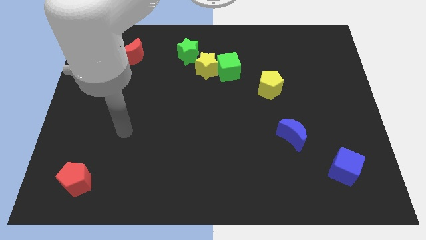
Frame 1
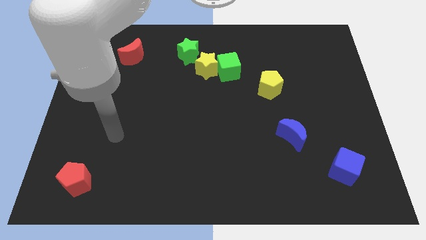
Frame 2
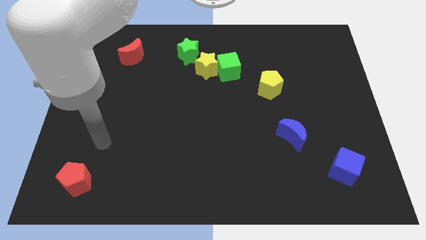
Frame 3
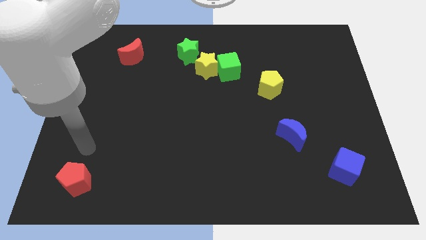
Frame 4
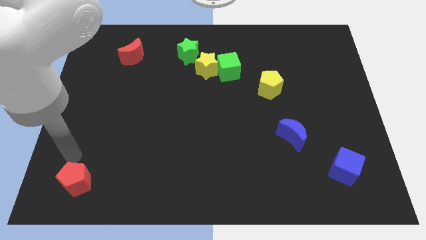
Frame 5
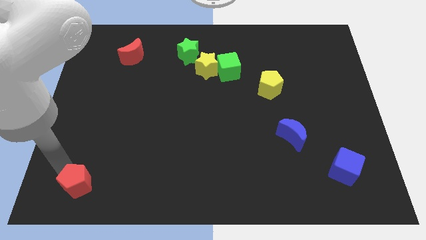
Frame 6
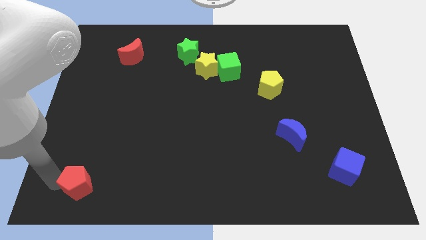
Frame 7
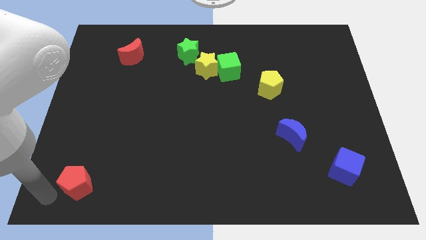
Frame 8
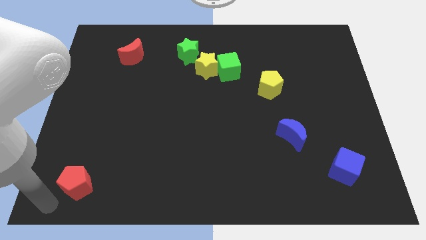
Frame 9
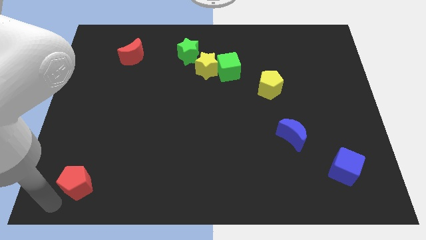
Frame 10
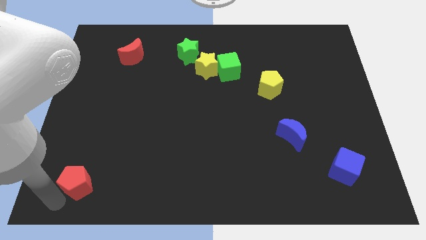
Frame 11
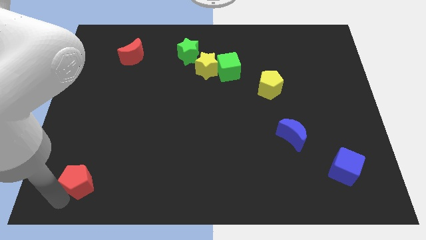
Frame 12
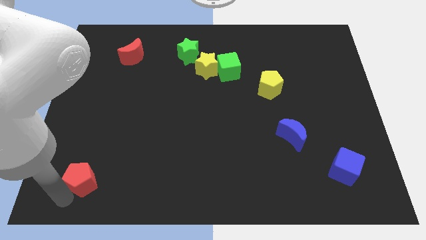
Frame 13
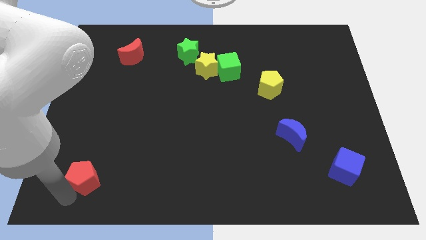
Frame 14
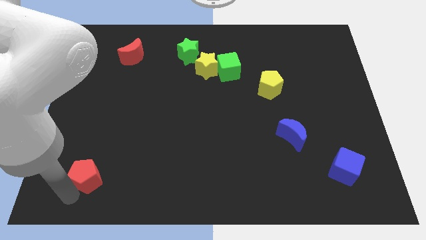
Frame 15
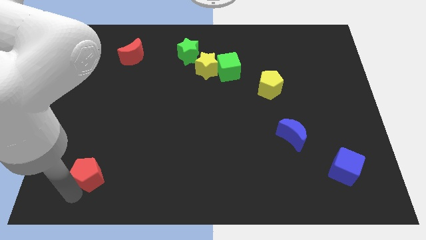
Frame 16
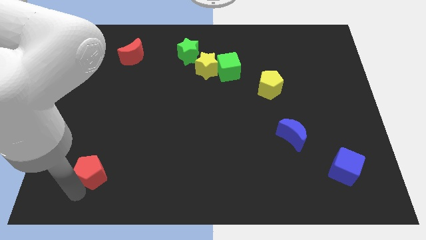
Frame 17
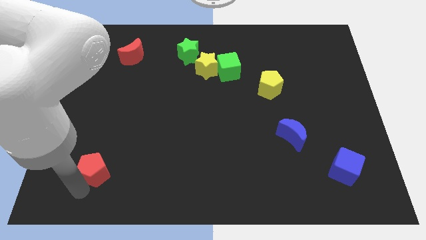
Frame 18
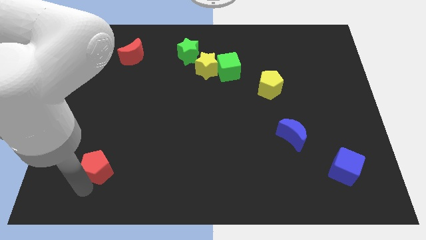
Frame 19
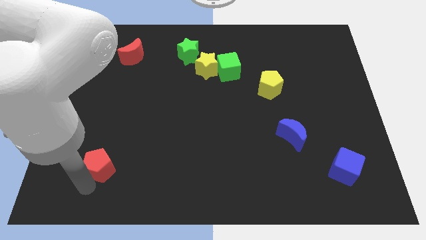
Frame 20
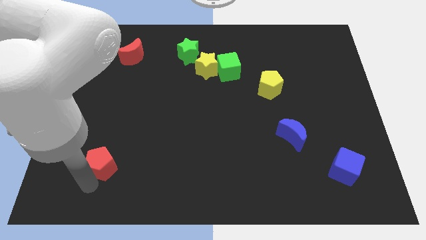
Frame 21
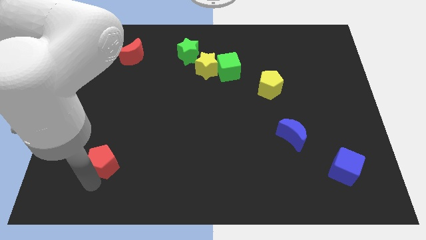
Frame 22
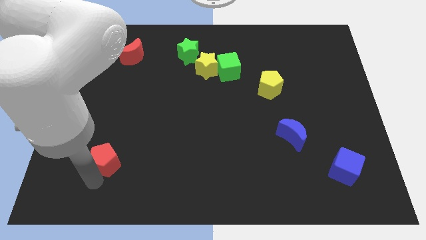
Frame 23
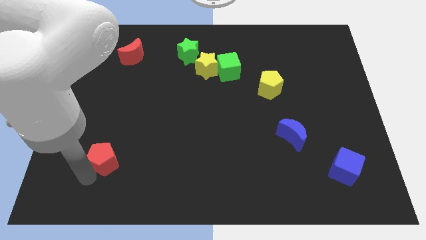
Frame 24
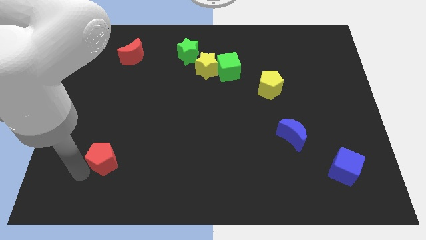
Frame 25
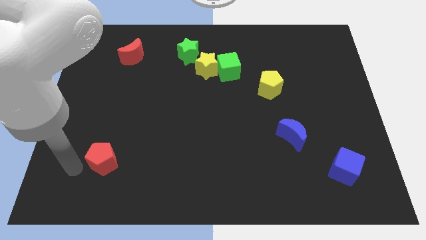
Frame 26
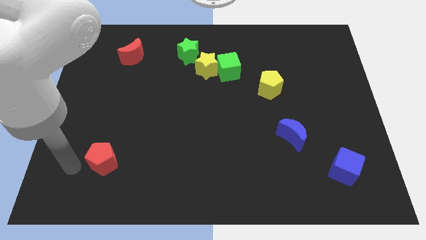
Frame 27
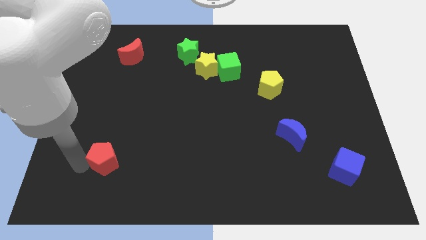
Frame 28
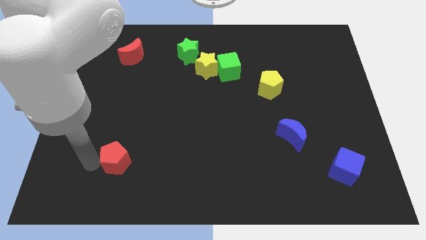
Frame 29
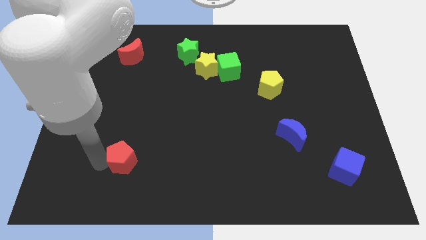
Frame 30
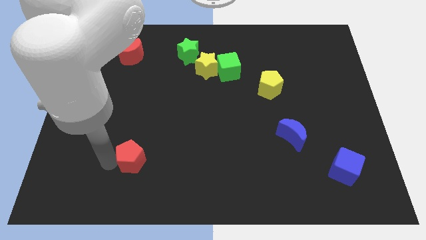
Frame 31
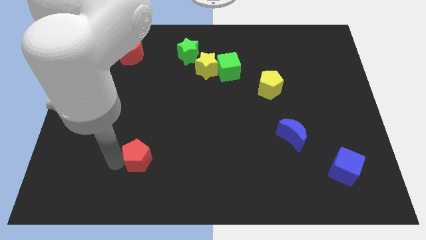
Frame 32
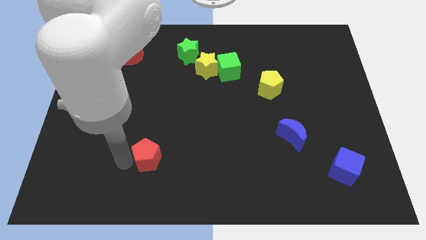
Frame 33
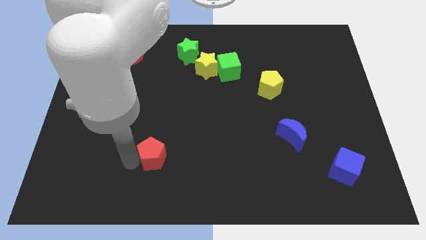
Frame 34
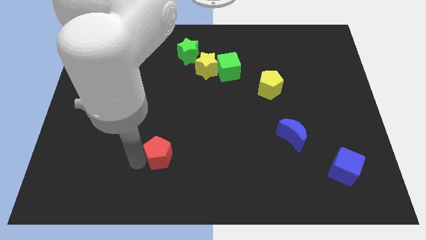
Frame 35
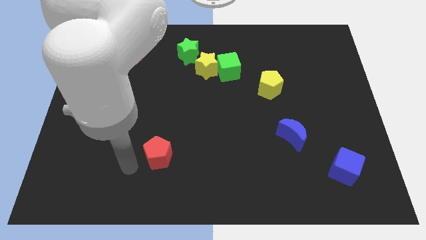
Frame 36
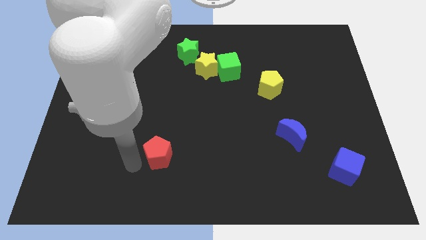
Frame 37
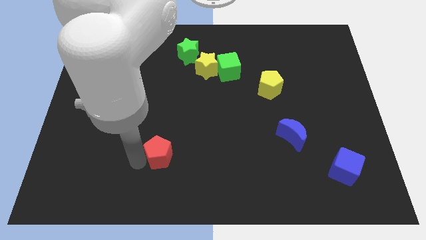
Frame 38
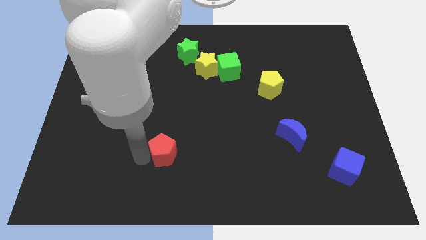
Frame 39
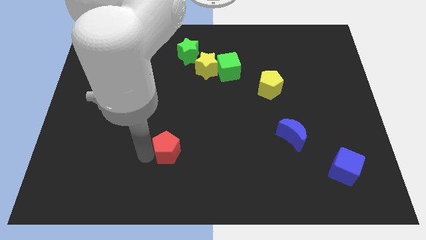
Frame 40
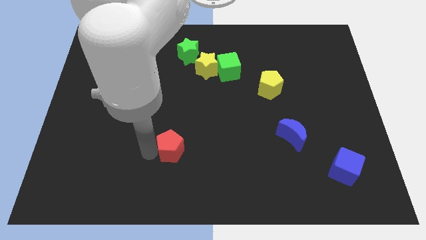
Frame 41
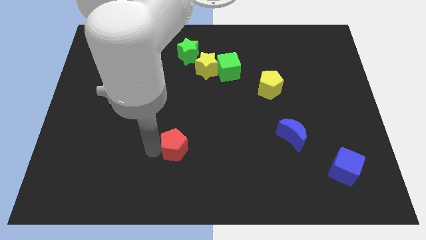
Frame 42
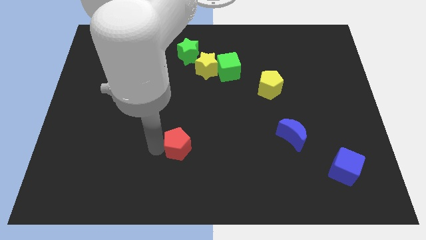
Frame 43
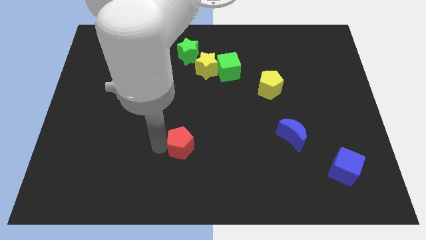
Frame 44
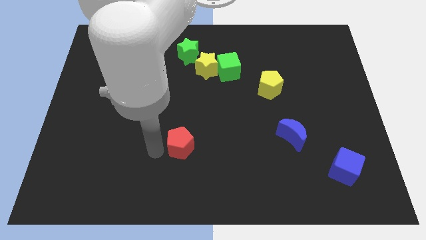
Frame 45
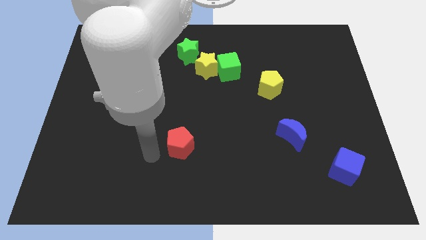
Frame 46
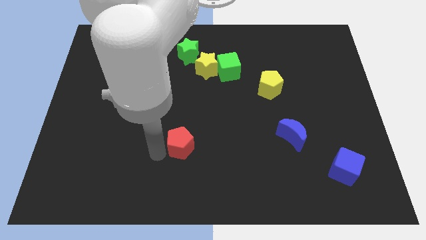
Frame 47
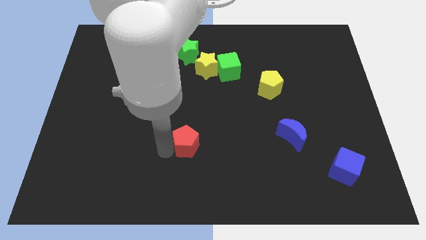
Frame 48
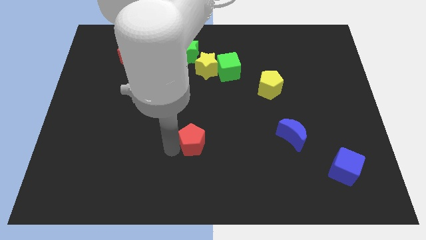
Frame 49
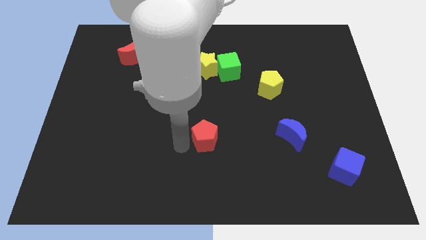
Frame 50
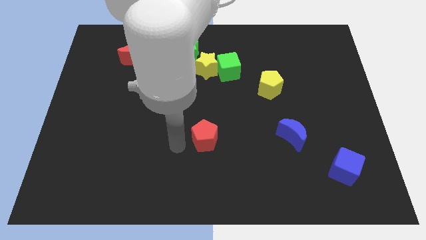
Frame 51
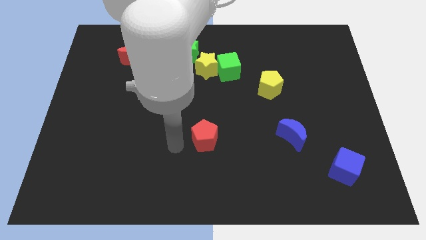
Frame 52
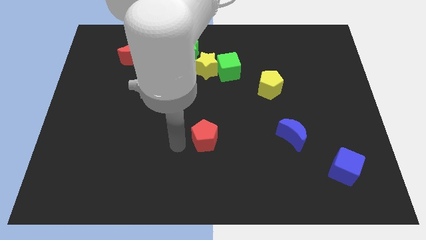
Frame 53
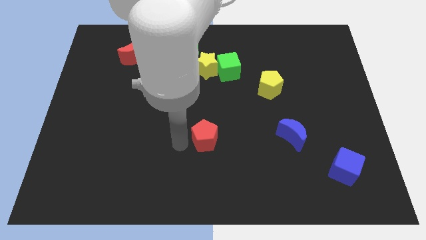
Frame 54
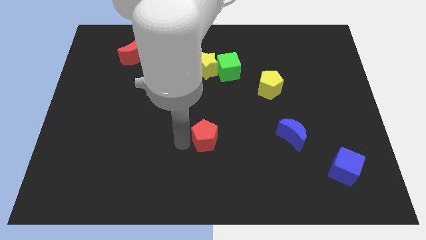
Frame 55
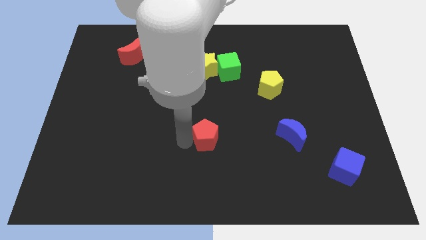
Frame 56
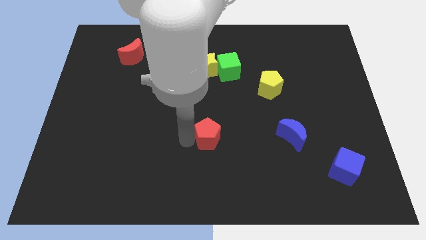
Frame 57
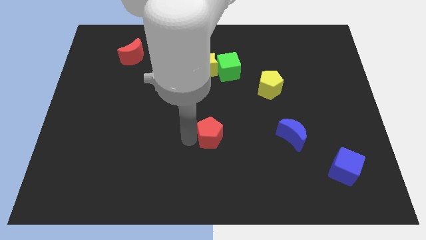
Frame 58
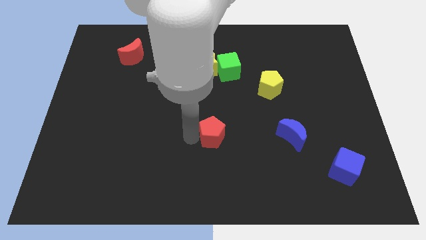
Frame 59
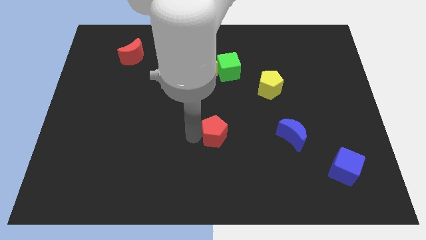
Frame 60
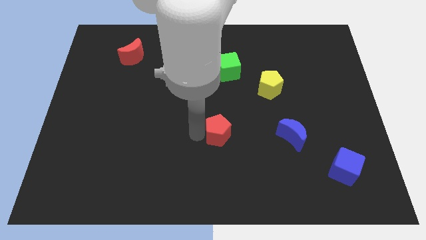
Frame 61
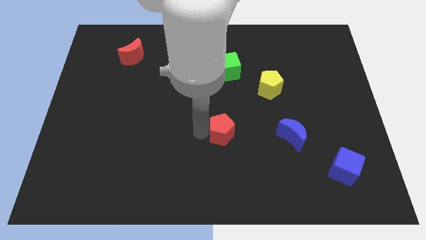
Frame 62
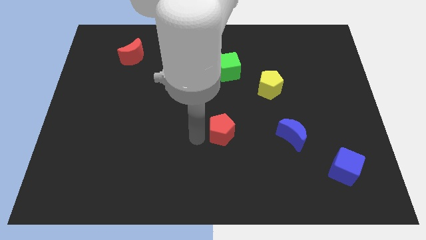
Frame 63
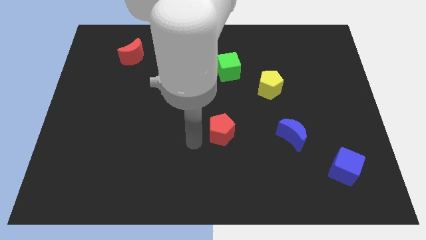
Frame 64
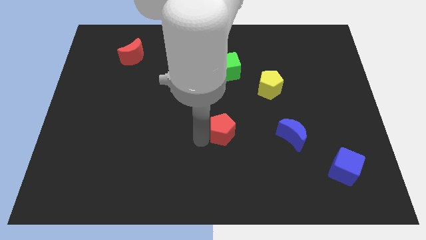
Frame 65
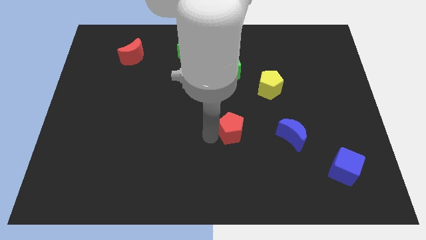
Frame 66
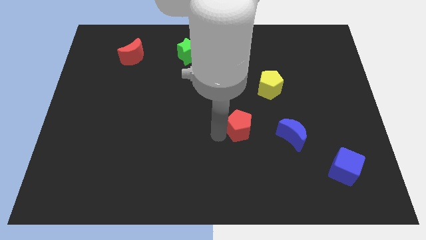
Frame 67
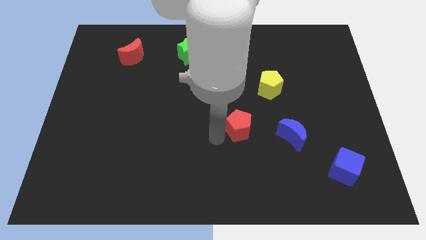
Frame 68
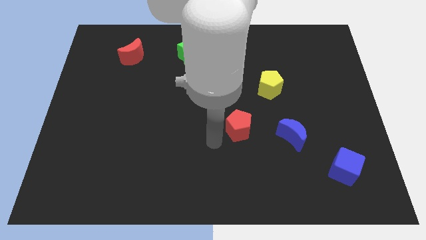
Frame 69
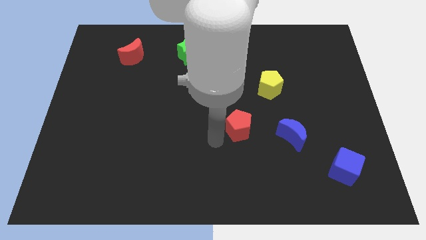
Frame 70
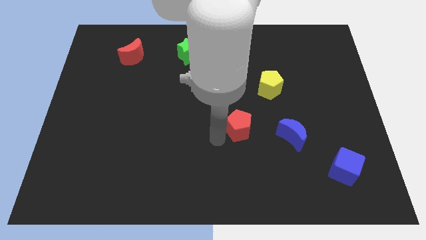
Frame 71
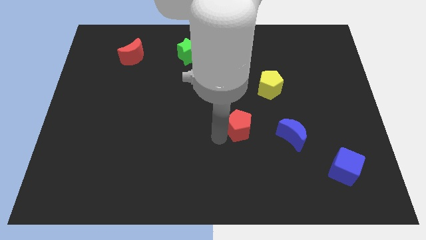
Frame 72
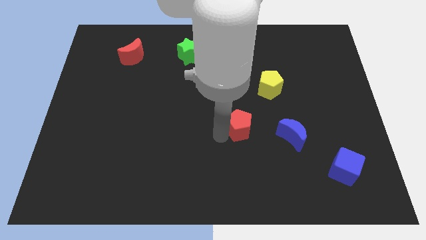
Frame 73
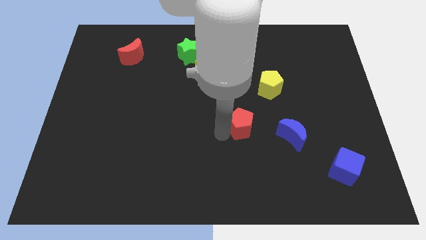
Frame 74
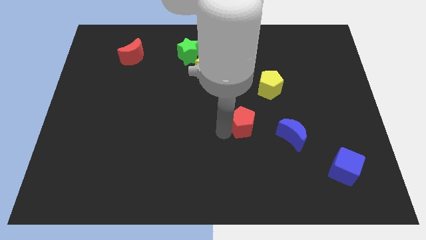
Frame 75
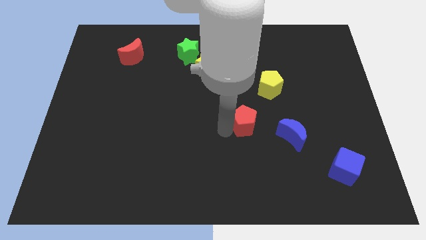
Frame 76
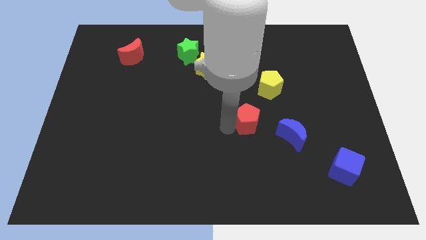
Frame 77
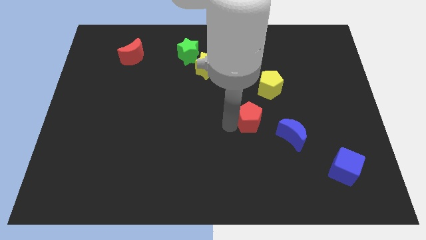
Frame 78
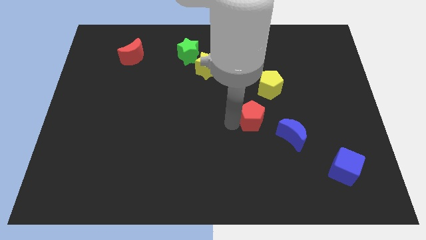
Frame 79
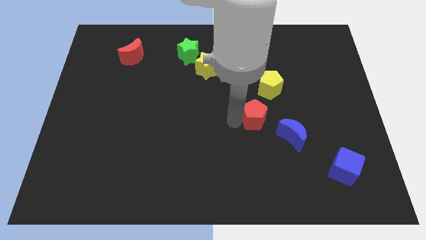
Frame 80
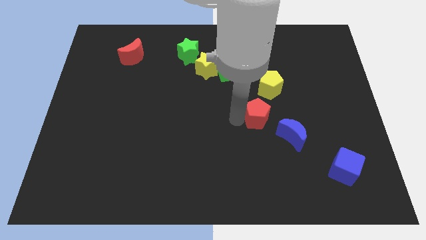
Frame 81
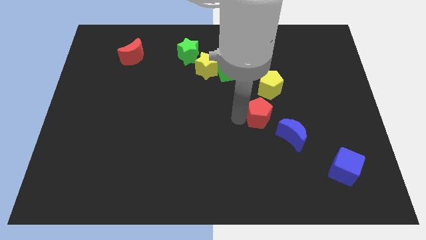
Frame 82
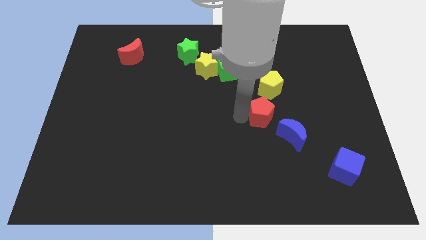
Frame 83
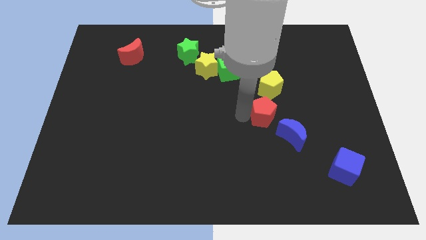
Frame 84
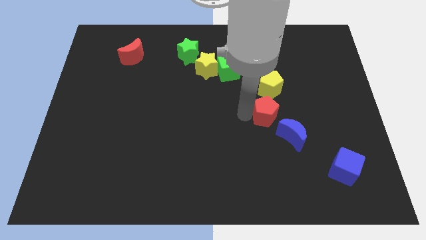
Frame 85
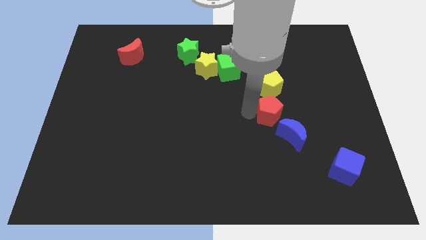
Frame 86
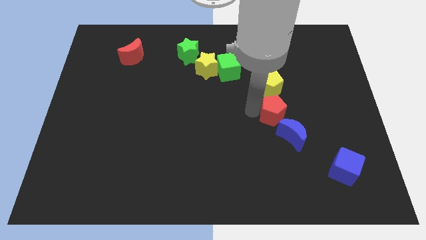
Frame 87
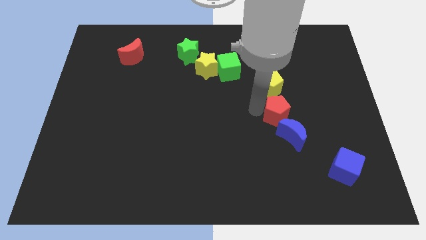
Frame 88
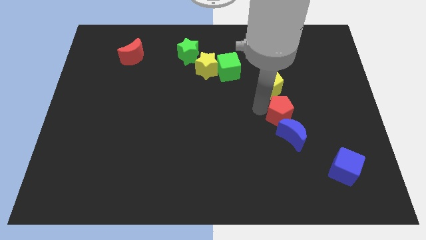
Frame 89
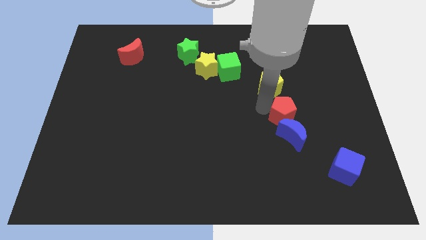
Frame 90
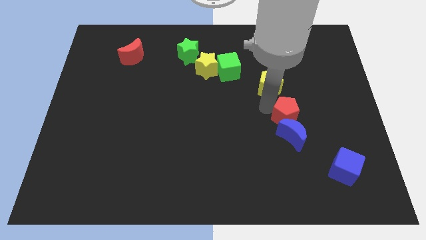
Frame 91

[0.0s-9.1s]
move the red pentagon to the top right side of the blue moon
